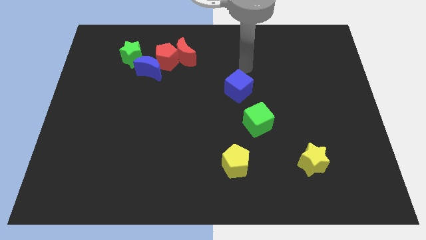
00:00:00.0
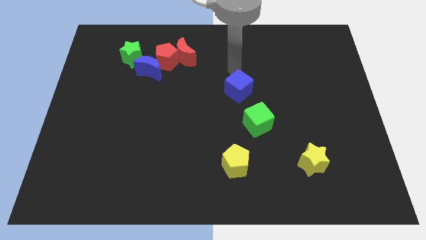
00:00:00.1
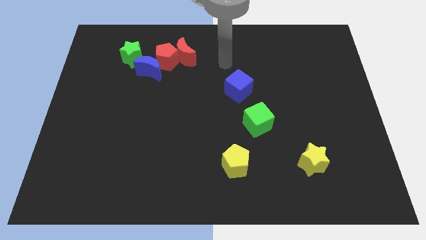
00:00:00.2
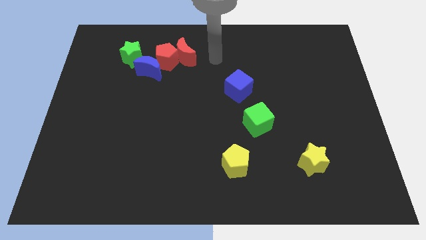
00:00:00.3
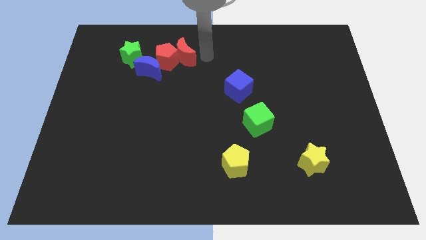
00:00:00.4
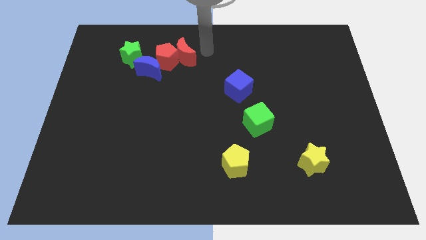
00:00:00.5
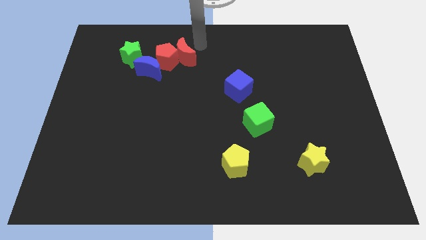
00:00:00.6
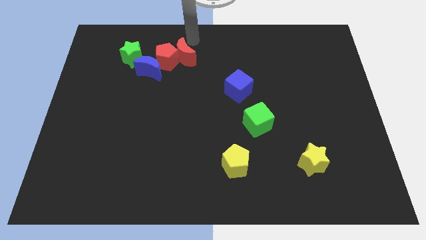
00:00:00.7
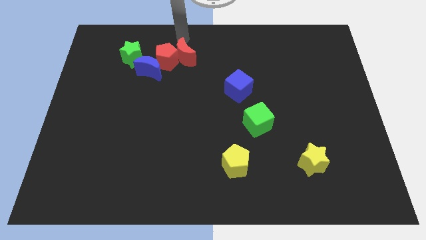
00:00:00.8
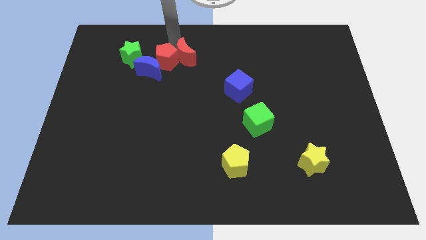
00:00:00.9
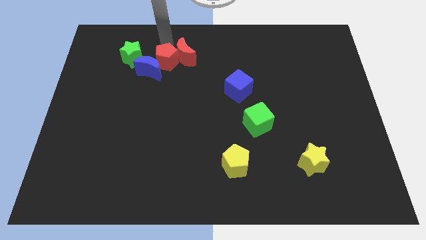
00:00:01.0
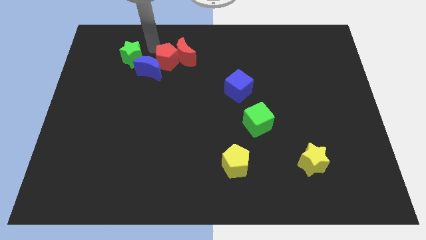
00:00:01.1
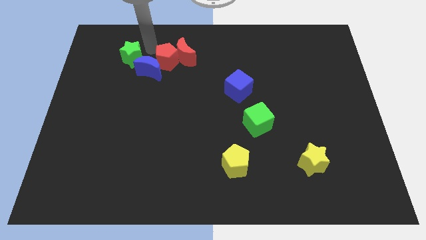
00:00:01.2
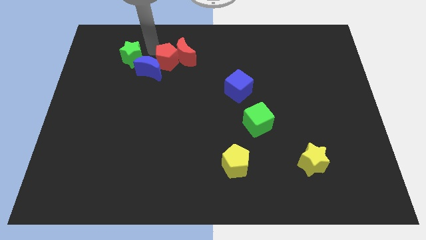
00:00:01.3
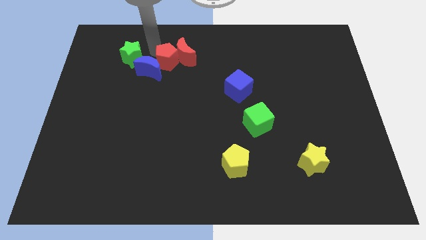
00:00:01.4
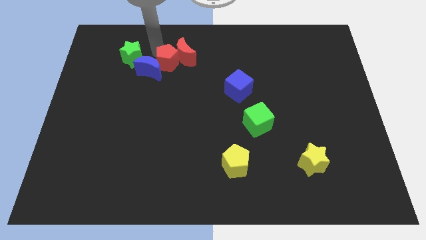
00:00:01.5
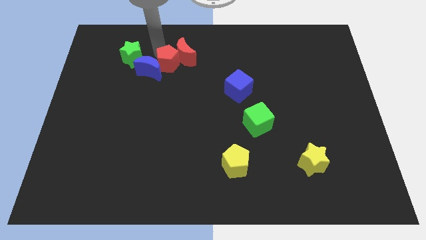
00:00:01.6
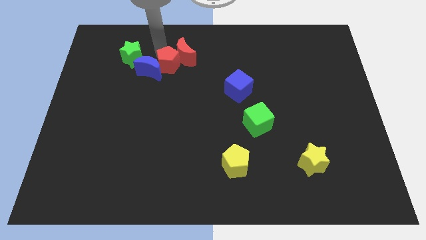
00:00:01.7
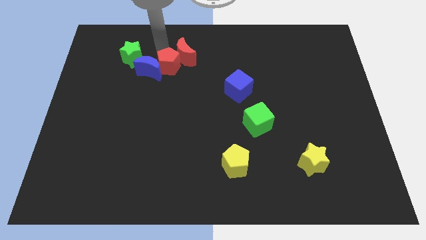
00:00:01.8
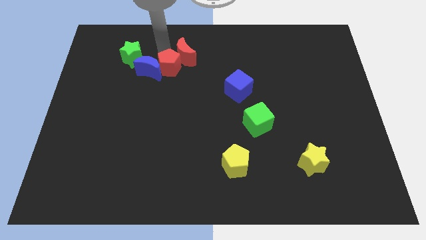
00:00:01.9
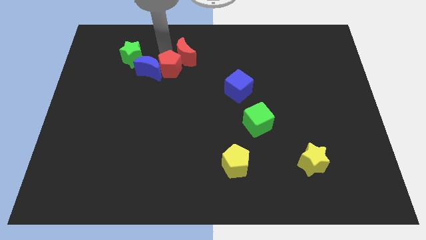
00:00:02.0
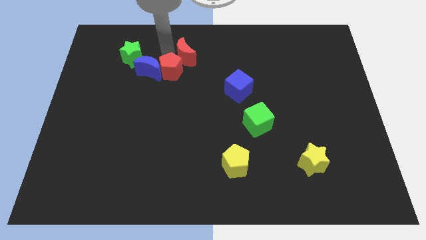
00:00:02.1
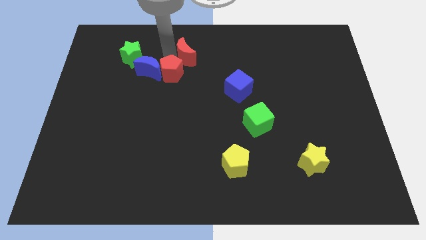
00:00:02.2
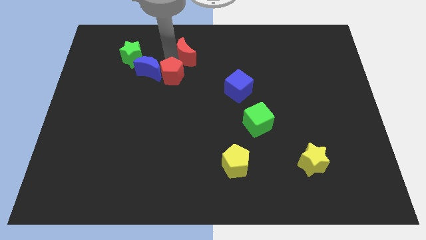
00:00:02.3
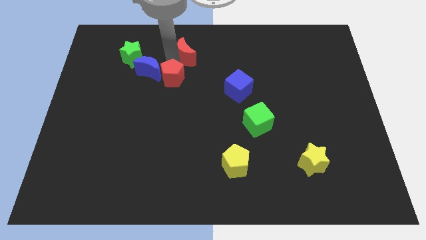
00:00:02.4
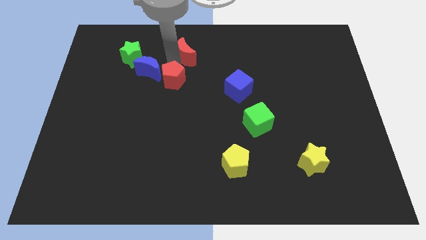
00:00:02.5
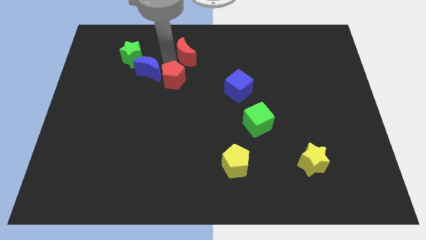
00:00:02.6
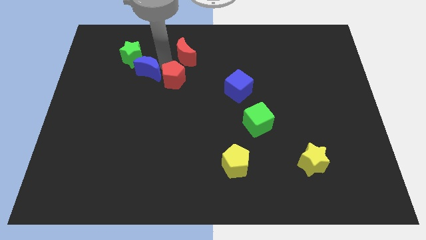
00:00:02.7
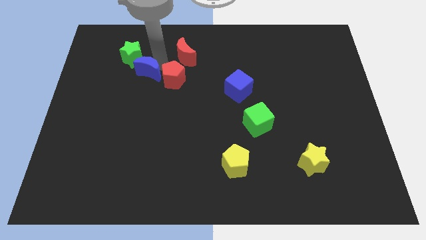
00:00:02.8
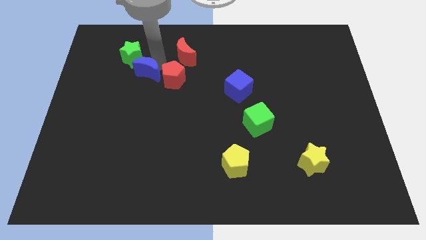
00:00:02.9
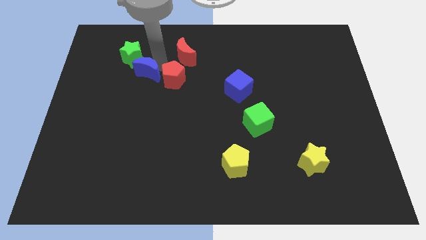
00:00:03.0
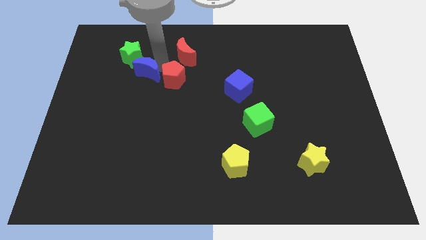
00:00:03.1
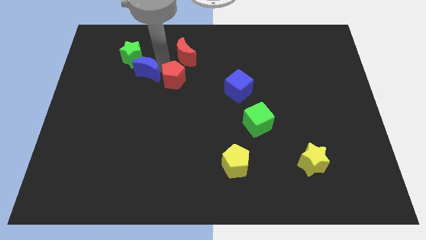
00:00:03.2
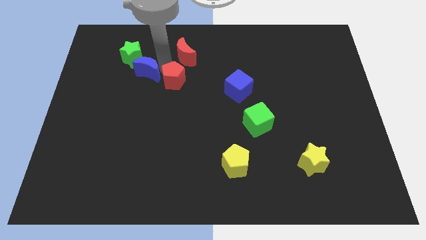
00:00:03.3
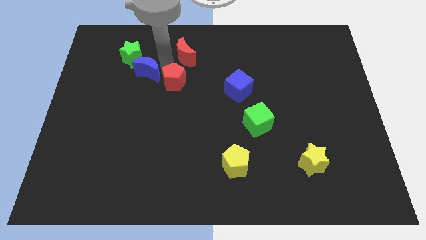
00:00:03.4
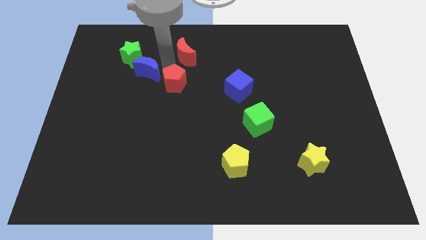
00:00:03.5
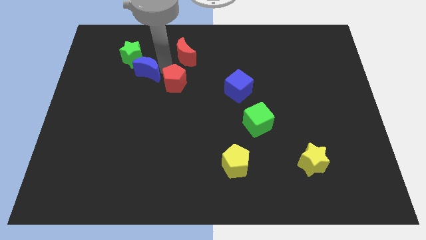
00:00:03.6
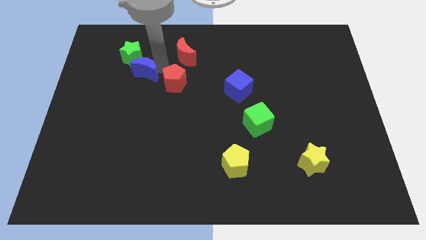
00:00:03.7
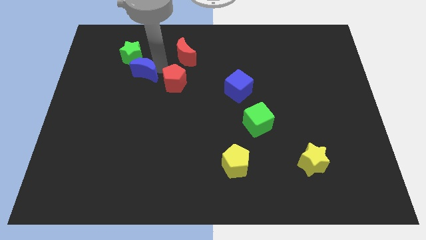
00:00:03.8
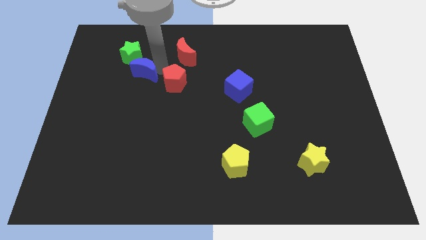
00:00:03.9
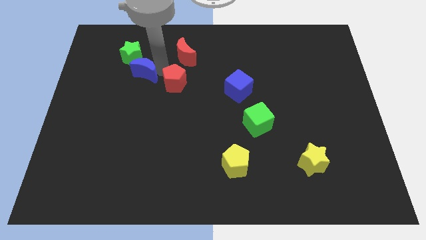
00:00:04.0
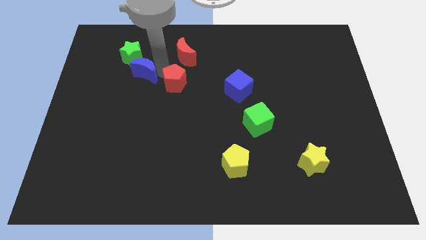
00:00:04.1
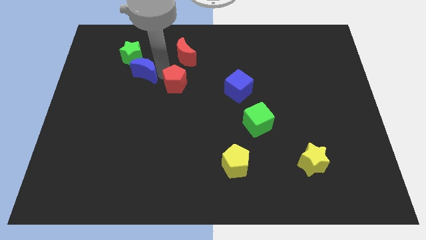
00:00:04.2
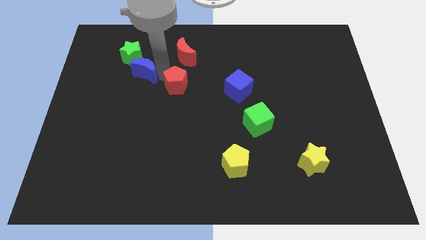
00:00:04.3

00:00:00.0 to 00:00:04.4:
separate the red pentagon from the red moon, blue moon, and green star

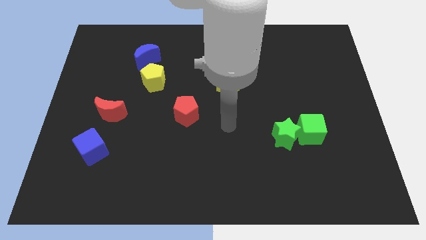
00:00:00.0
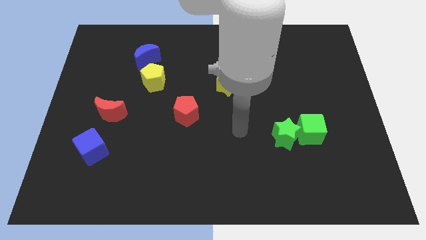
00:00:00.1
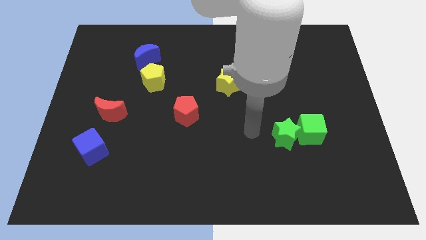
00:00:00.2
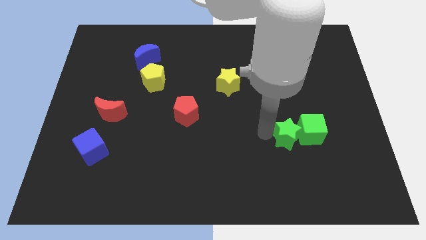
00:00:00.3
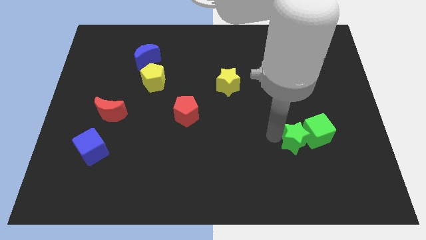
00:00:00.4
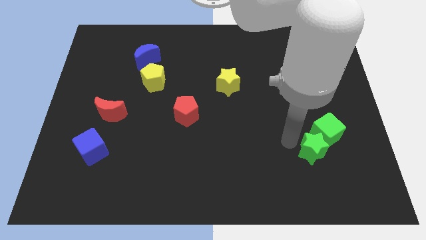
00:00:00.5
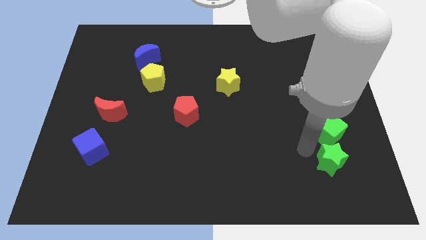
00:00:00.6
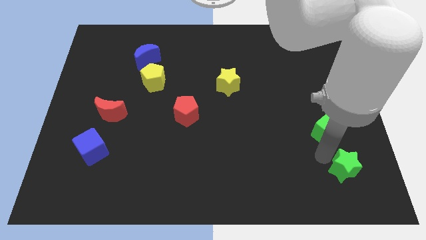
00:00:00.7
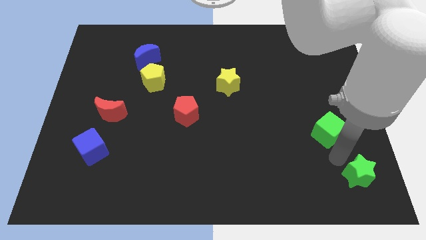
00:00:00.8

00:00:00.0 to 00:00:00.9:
pull the green cube apart from the green star

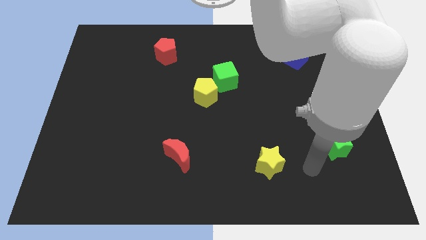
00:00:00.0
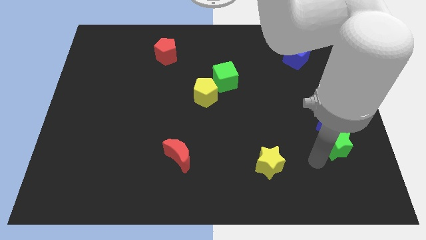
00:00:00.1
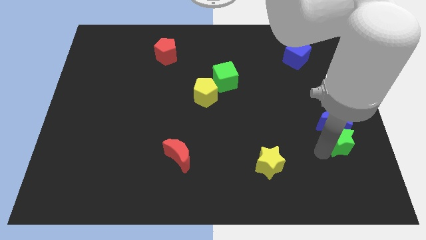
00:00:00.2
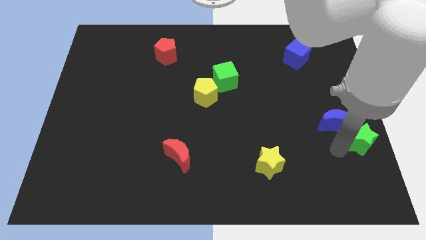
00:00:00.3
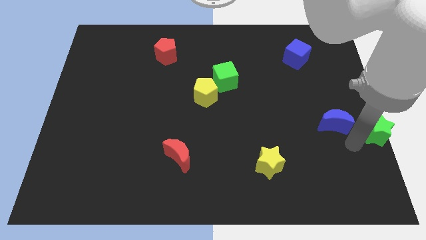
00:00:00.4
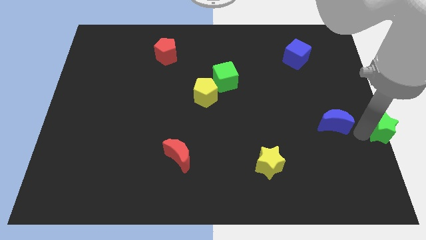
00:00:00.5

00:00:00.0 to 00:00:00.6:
move the blue moon away from the green star

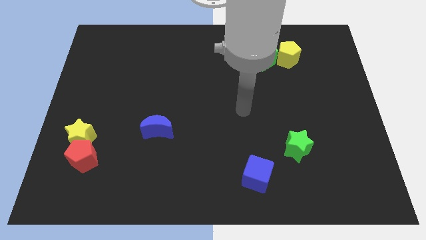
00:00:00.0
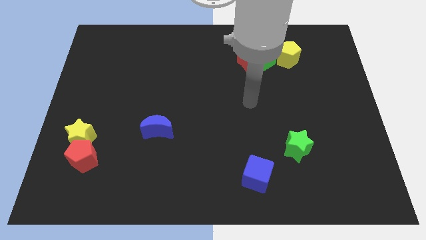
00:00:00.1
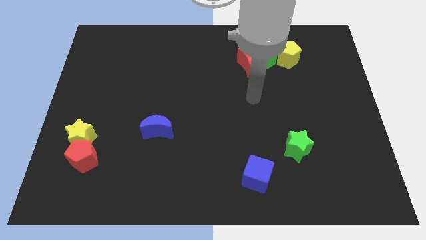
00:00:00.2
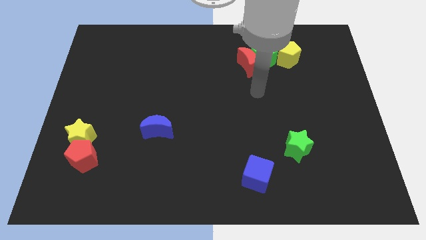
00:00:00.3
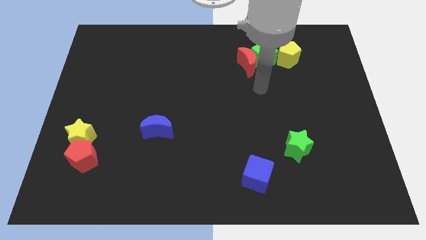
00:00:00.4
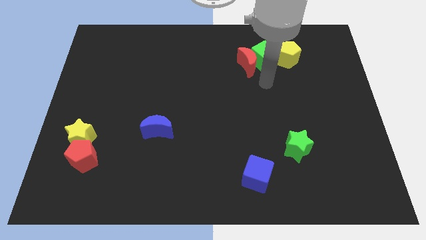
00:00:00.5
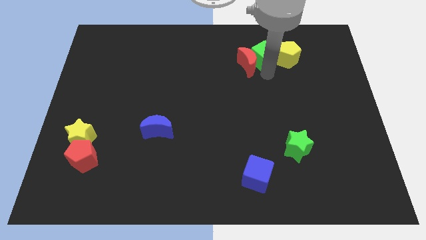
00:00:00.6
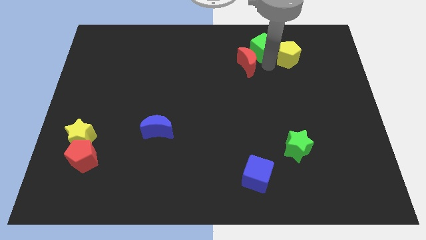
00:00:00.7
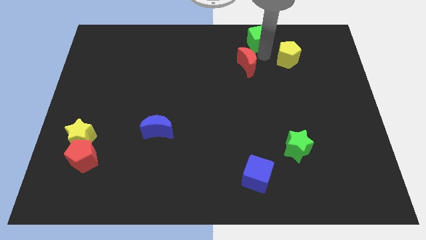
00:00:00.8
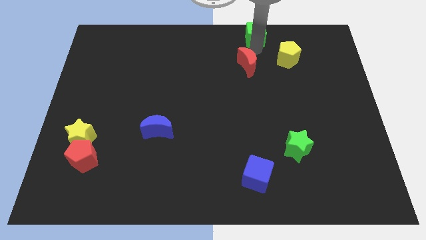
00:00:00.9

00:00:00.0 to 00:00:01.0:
move the red moon away from the green cube

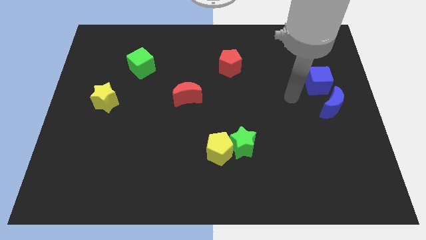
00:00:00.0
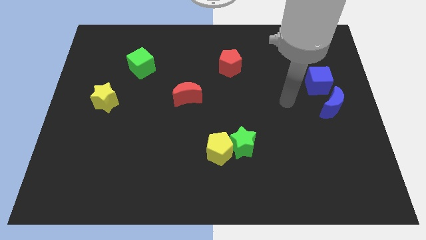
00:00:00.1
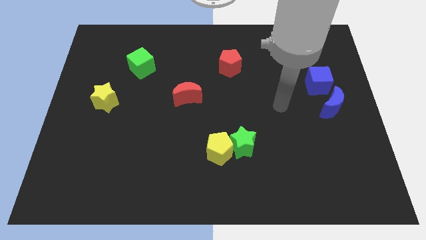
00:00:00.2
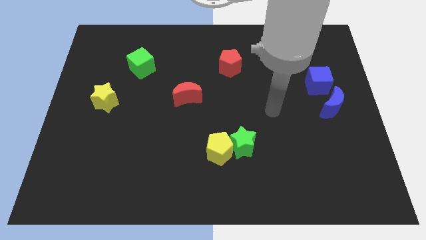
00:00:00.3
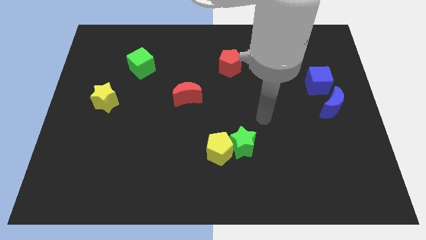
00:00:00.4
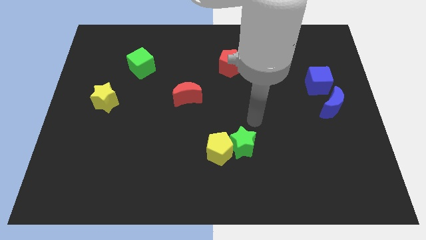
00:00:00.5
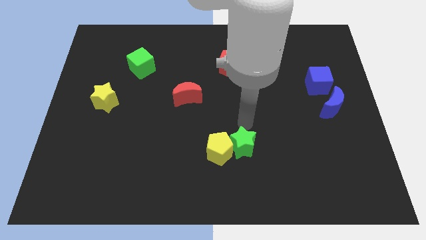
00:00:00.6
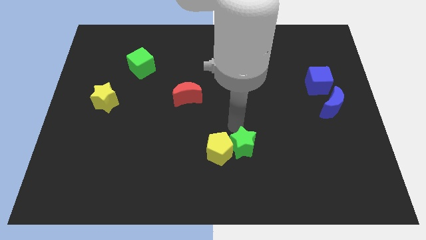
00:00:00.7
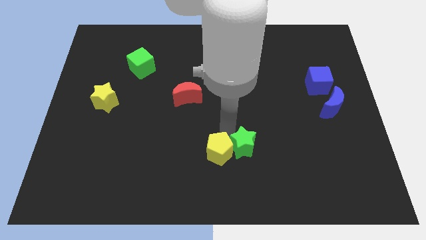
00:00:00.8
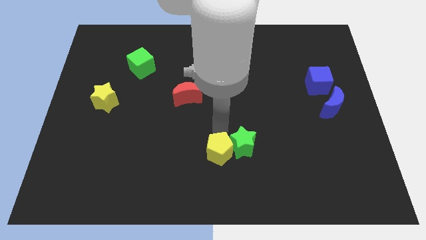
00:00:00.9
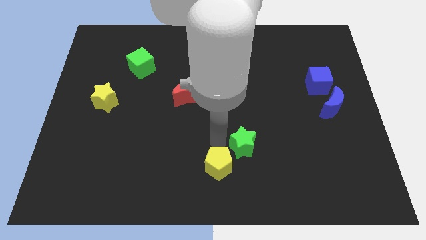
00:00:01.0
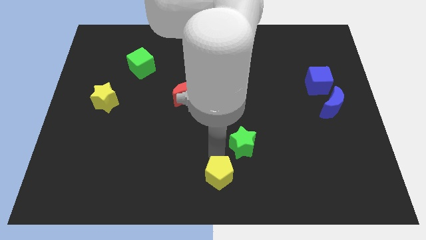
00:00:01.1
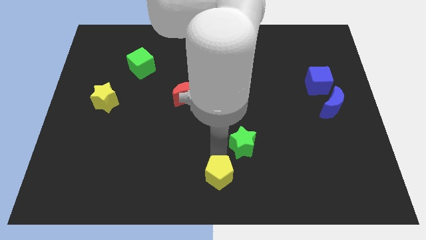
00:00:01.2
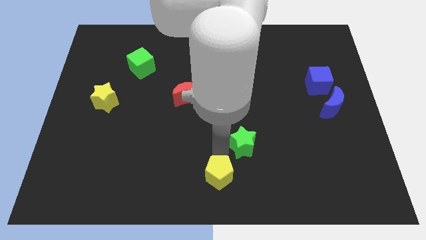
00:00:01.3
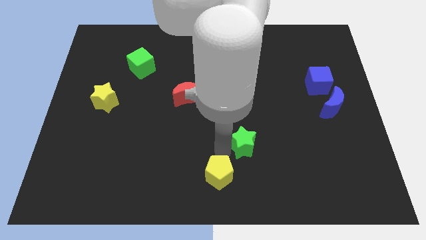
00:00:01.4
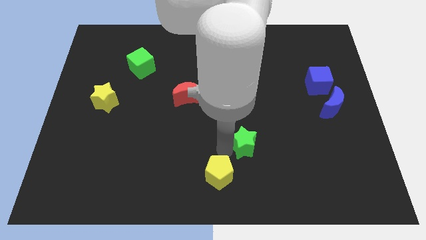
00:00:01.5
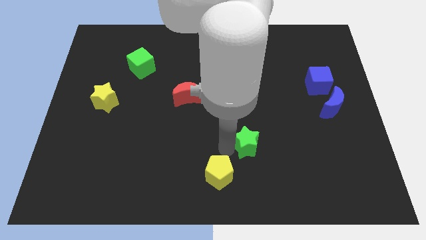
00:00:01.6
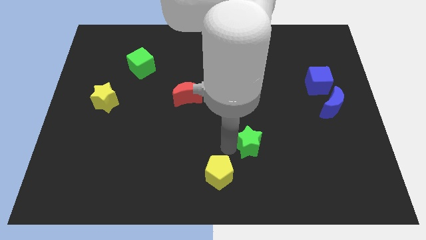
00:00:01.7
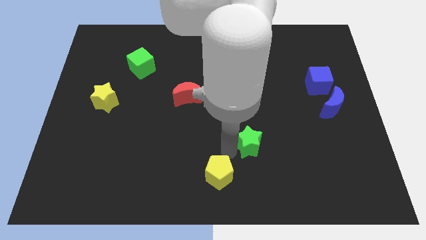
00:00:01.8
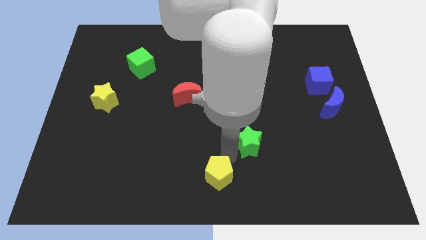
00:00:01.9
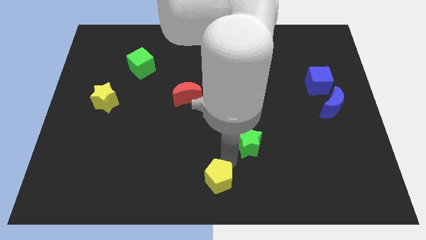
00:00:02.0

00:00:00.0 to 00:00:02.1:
move the green star away from the yellow pentagon

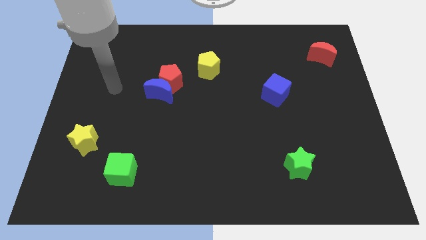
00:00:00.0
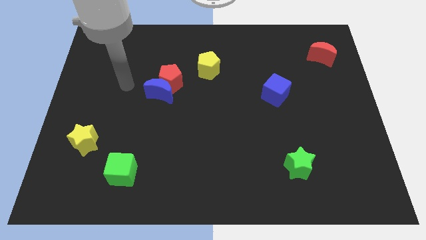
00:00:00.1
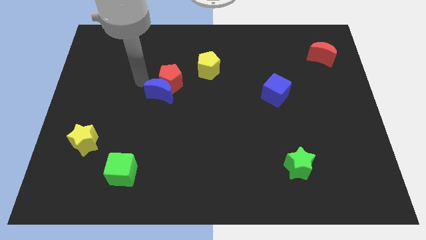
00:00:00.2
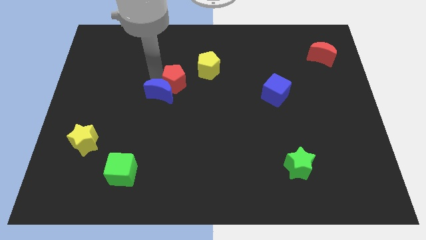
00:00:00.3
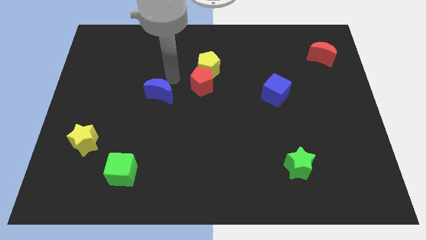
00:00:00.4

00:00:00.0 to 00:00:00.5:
separate the blue moon from the red pentagon
